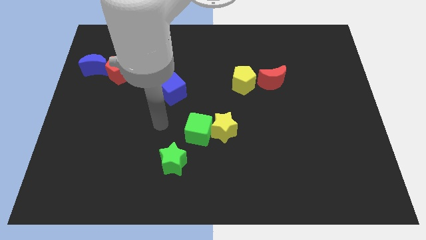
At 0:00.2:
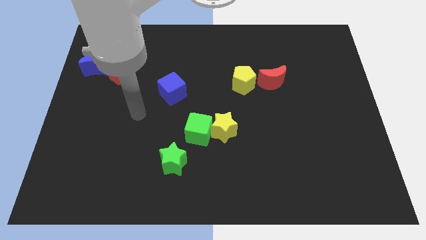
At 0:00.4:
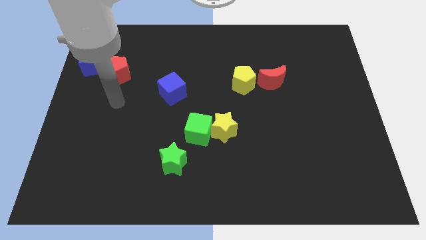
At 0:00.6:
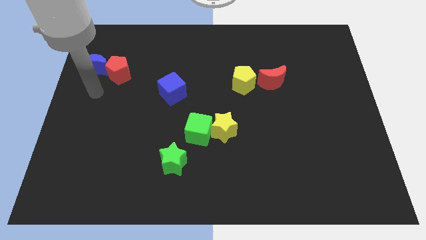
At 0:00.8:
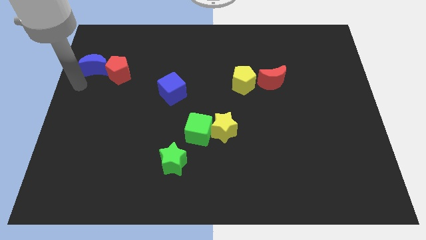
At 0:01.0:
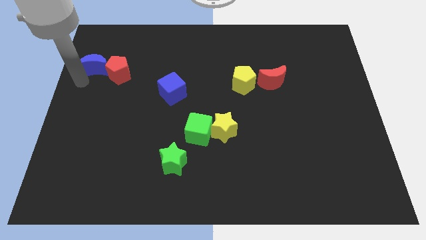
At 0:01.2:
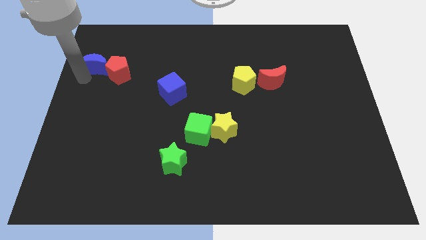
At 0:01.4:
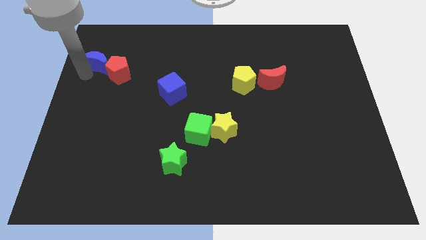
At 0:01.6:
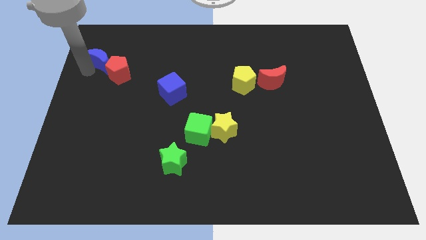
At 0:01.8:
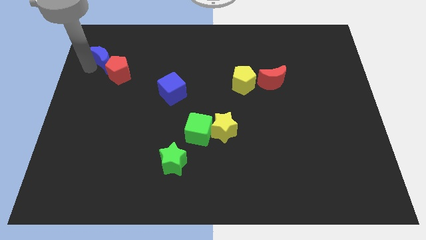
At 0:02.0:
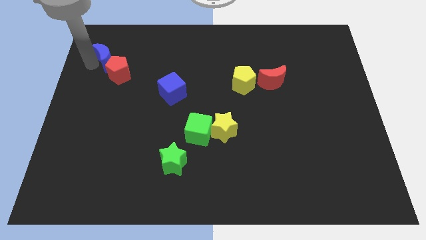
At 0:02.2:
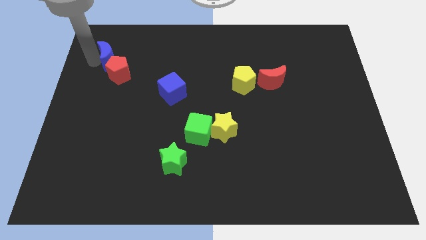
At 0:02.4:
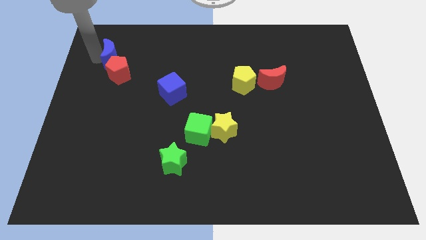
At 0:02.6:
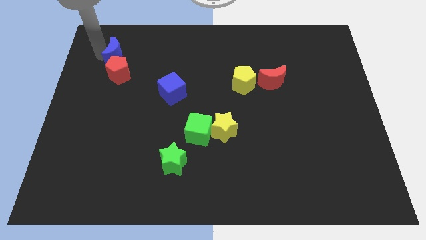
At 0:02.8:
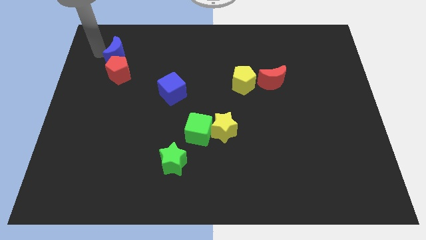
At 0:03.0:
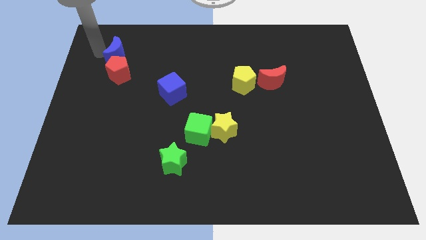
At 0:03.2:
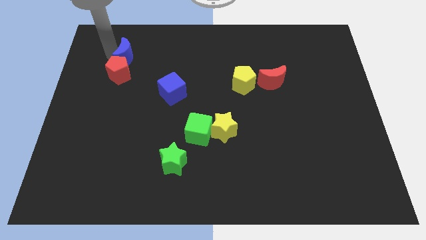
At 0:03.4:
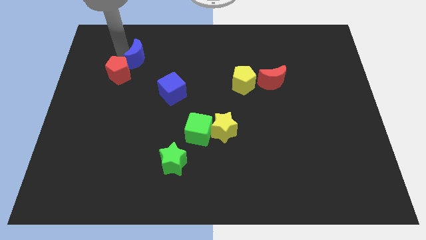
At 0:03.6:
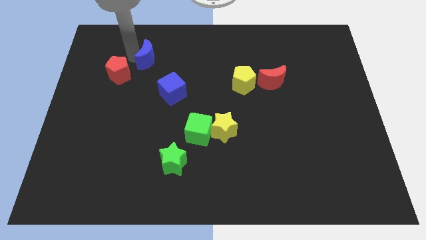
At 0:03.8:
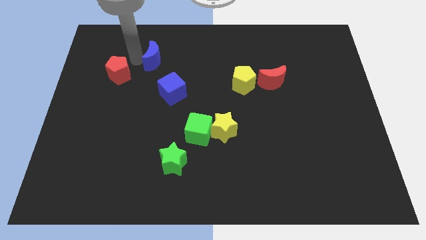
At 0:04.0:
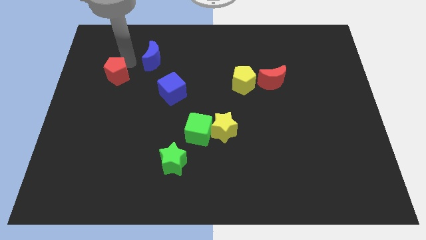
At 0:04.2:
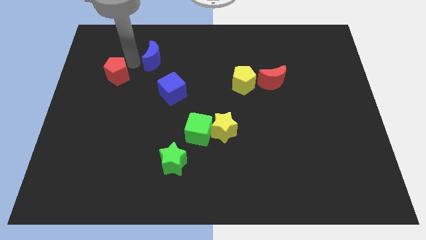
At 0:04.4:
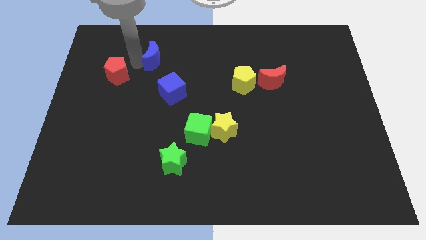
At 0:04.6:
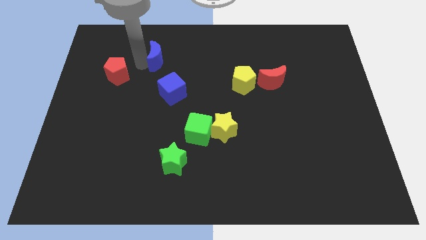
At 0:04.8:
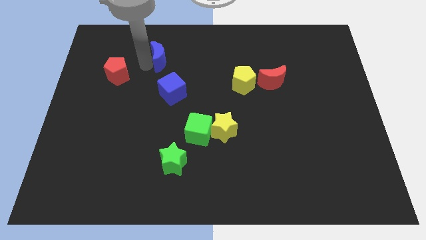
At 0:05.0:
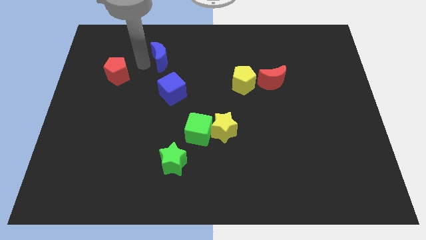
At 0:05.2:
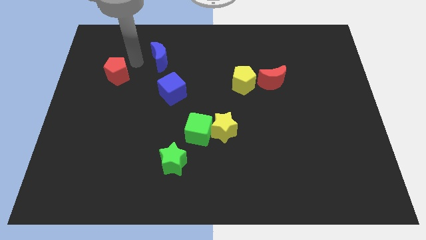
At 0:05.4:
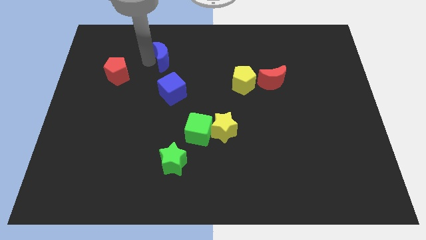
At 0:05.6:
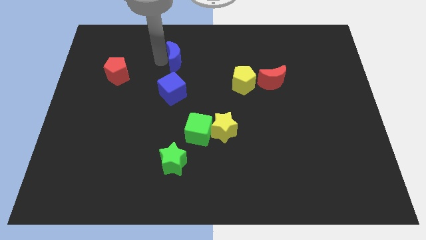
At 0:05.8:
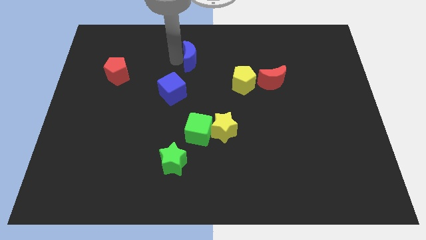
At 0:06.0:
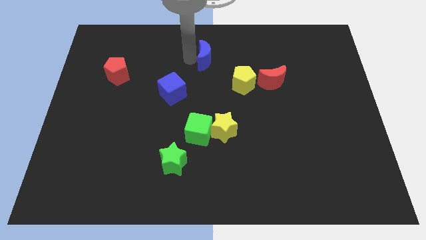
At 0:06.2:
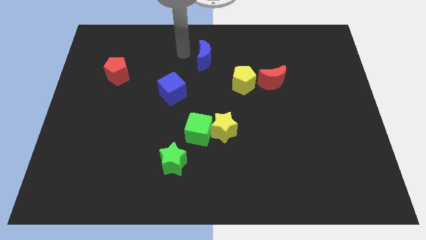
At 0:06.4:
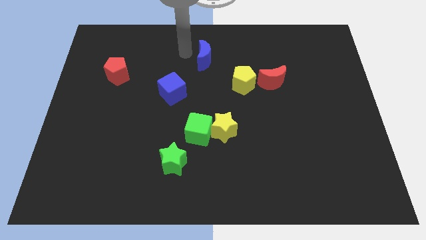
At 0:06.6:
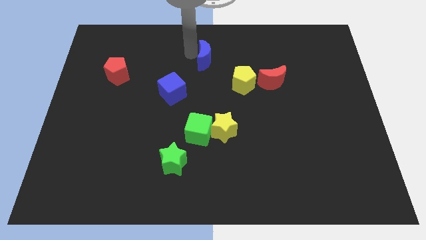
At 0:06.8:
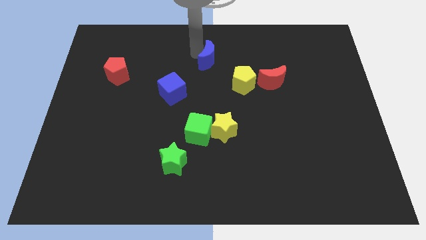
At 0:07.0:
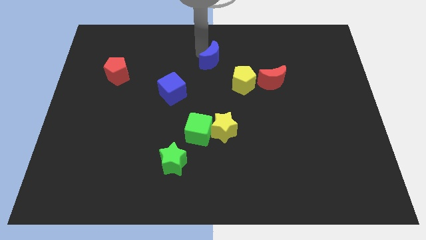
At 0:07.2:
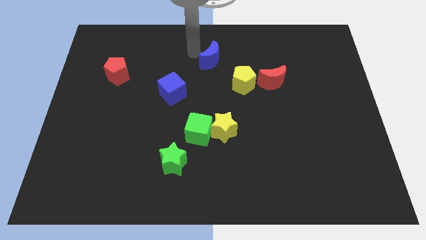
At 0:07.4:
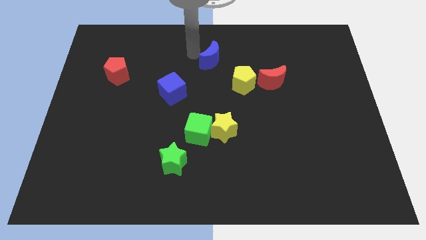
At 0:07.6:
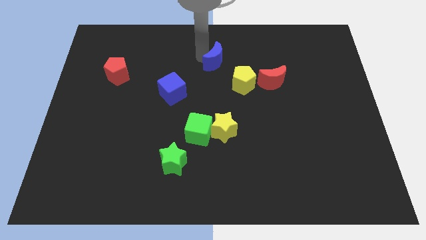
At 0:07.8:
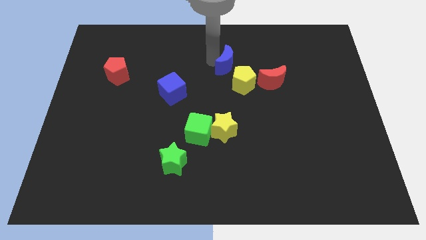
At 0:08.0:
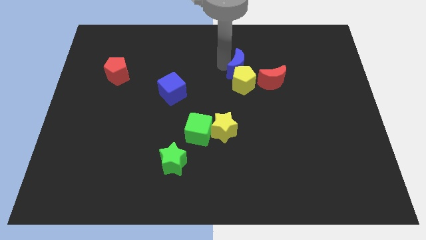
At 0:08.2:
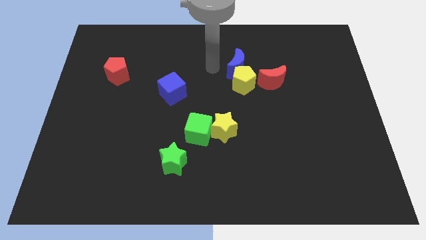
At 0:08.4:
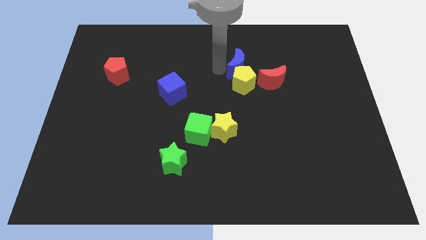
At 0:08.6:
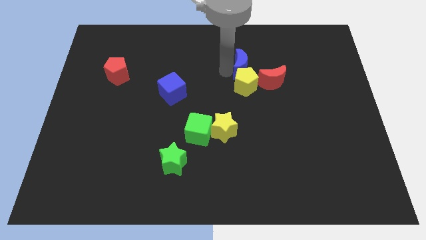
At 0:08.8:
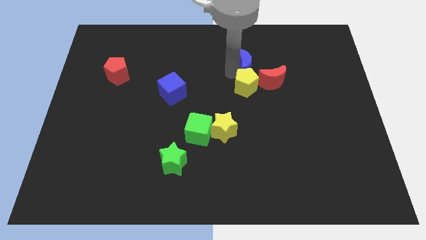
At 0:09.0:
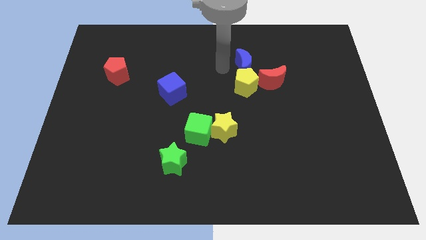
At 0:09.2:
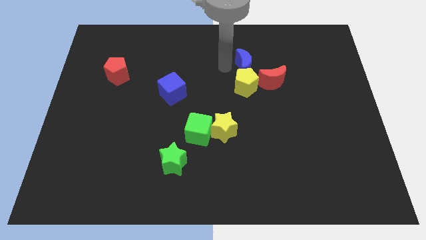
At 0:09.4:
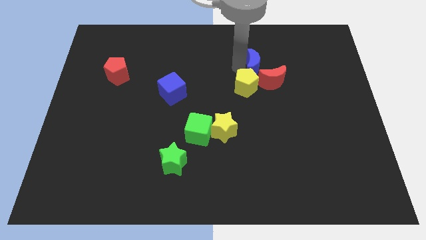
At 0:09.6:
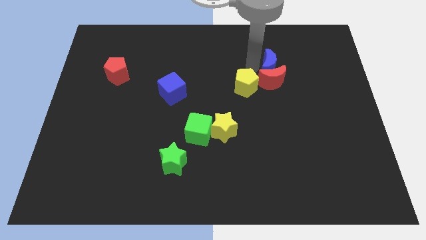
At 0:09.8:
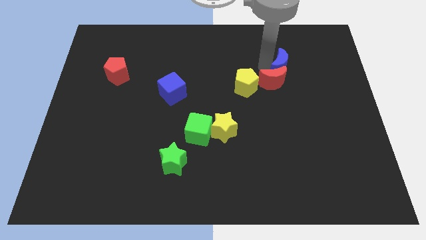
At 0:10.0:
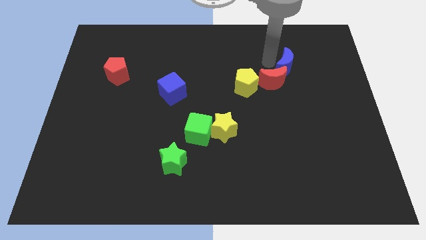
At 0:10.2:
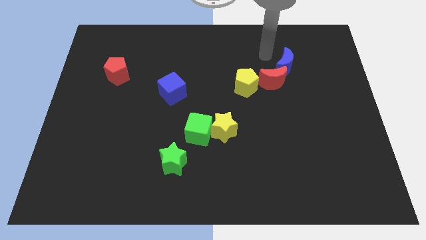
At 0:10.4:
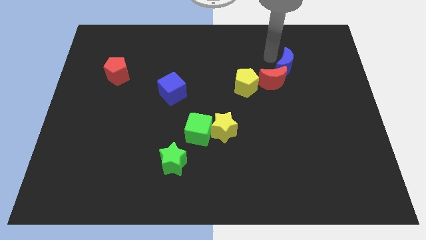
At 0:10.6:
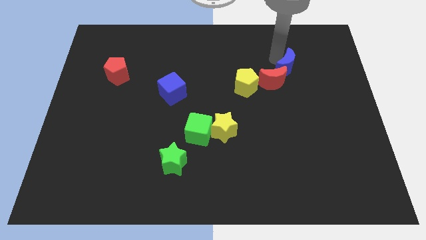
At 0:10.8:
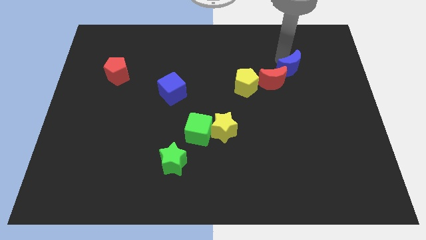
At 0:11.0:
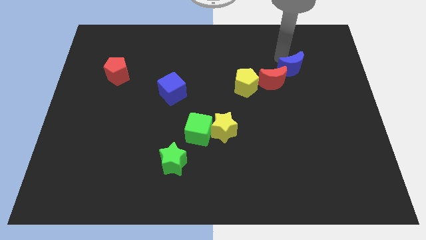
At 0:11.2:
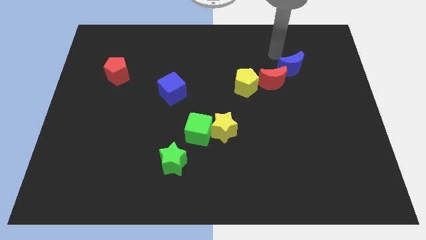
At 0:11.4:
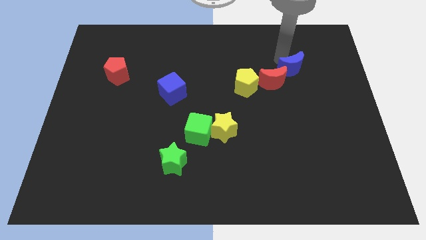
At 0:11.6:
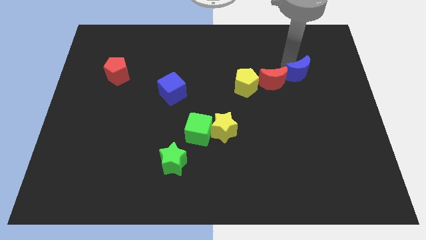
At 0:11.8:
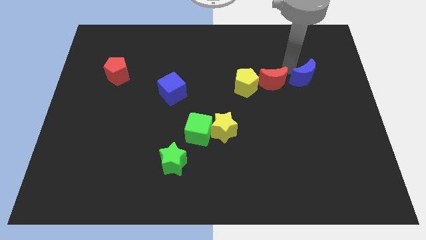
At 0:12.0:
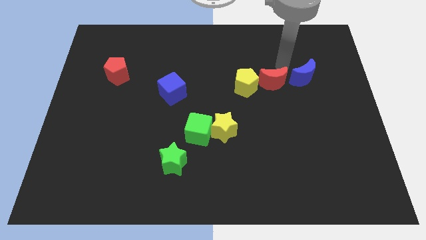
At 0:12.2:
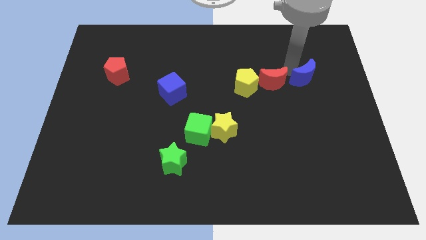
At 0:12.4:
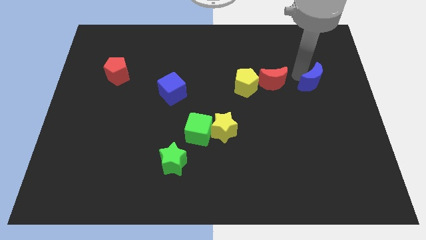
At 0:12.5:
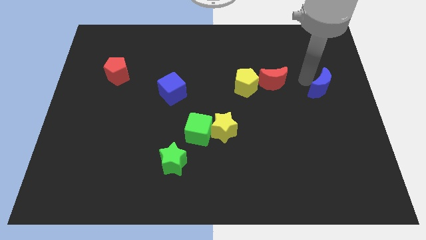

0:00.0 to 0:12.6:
move the blue moon to the right side of the board
